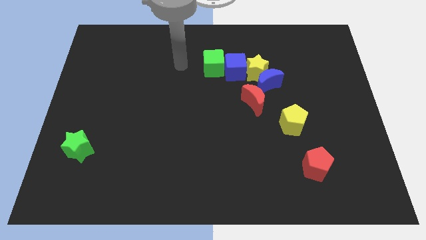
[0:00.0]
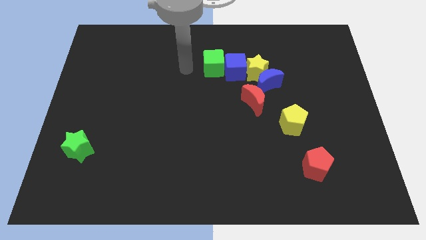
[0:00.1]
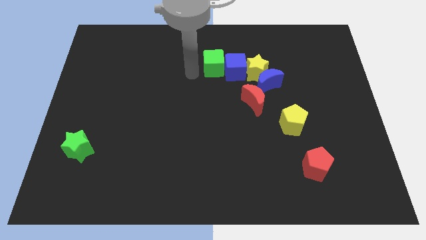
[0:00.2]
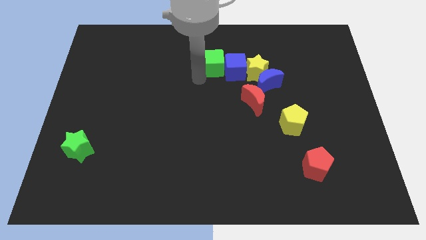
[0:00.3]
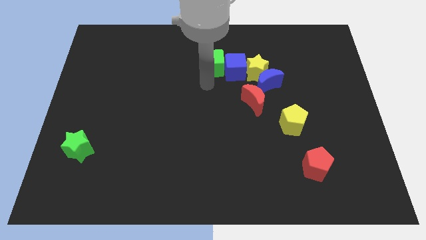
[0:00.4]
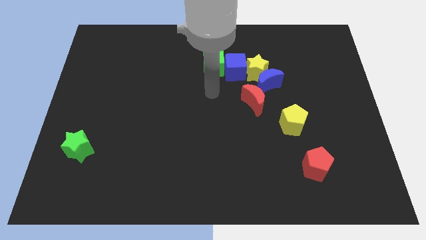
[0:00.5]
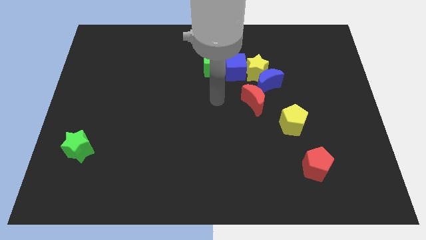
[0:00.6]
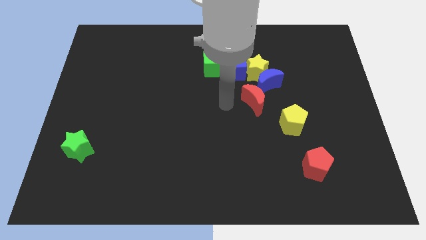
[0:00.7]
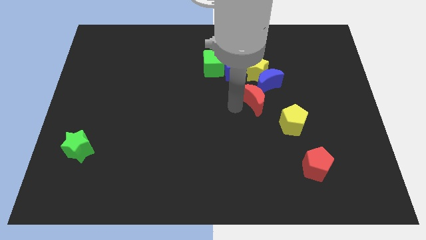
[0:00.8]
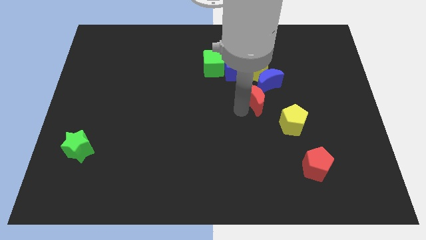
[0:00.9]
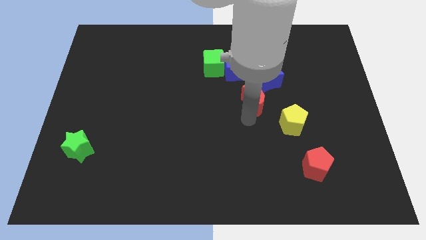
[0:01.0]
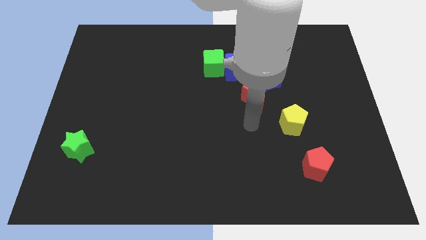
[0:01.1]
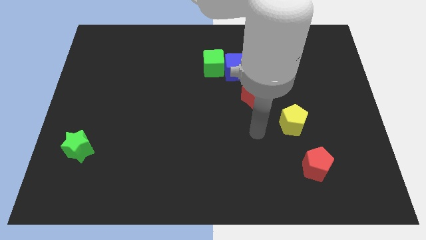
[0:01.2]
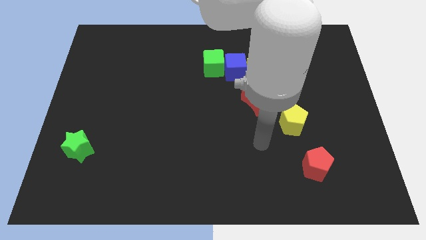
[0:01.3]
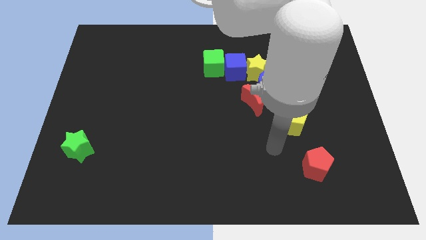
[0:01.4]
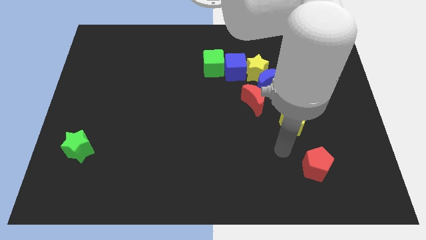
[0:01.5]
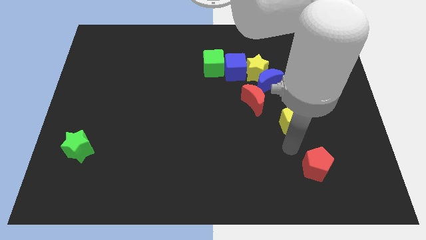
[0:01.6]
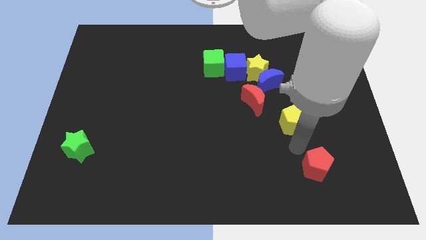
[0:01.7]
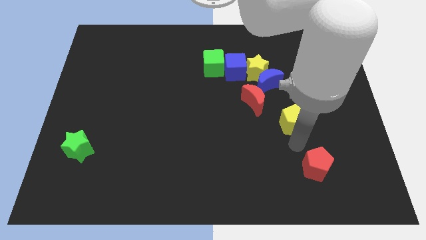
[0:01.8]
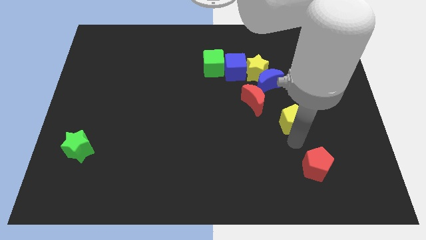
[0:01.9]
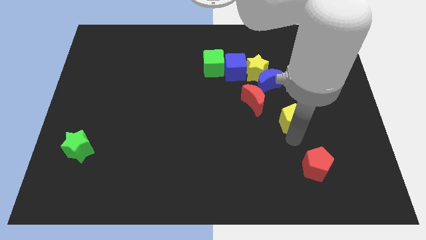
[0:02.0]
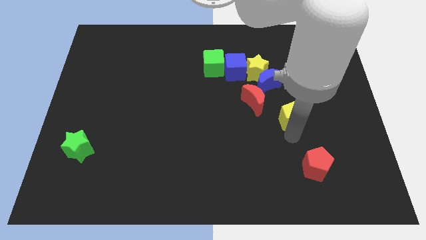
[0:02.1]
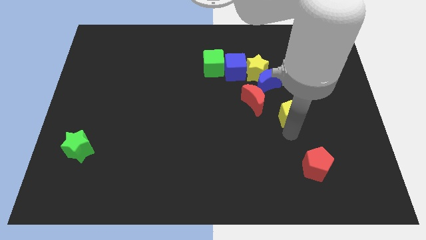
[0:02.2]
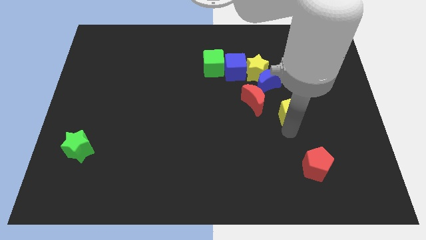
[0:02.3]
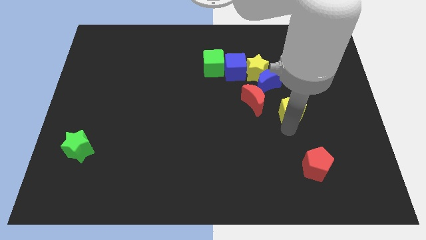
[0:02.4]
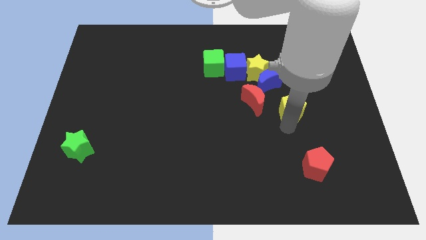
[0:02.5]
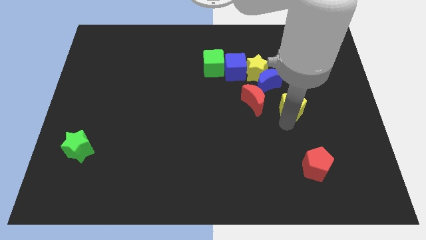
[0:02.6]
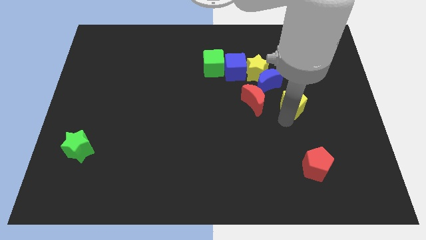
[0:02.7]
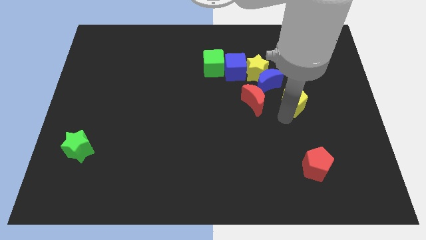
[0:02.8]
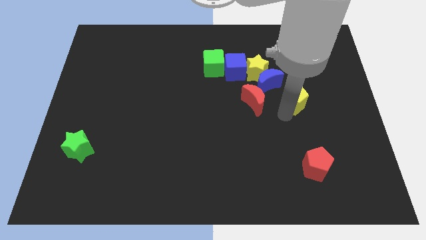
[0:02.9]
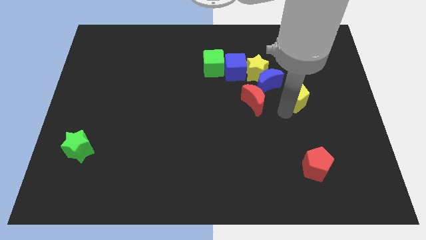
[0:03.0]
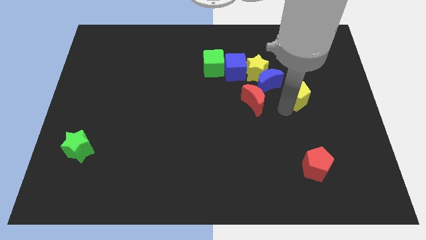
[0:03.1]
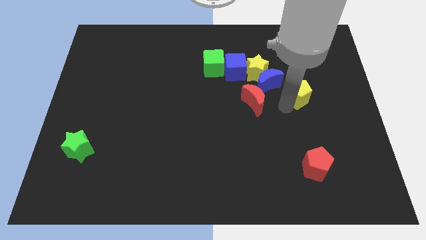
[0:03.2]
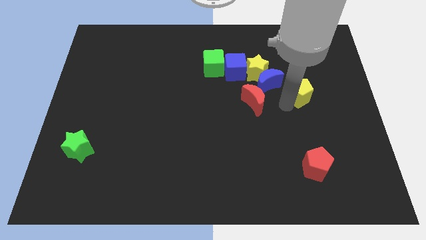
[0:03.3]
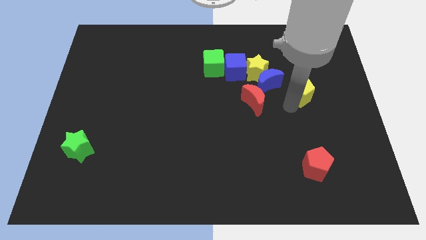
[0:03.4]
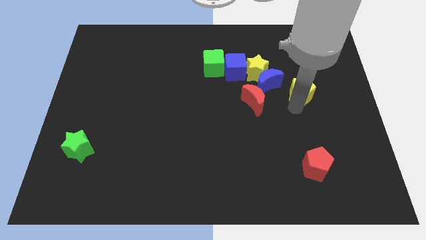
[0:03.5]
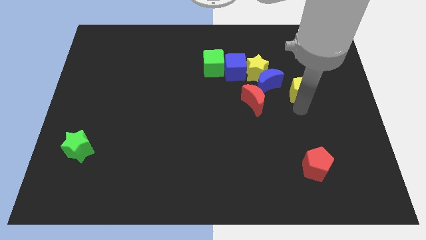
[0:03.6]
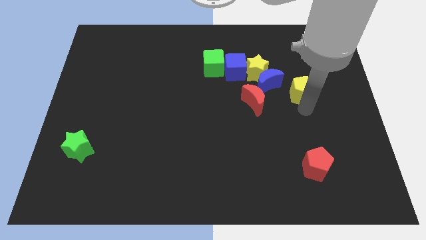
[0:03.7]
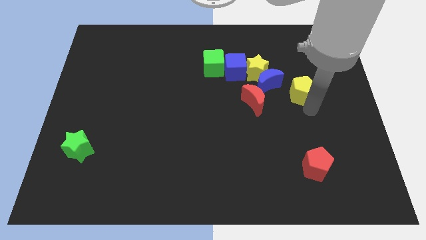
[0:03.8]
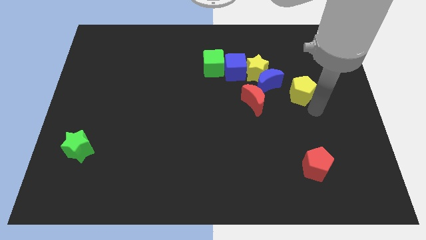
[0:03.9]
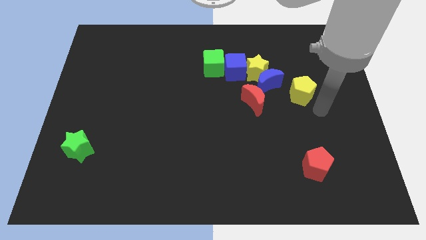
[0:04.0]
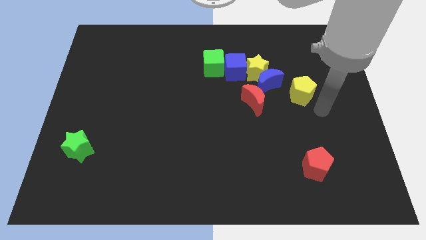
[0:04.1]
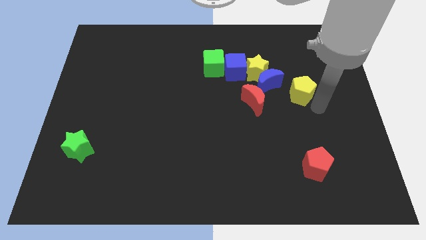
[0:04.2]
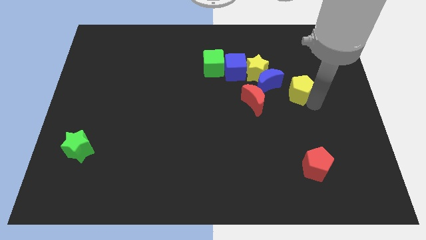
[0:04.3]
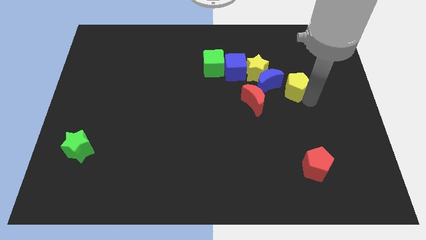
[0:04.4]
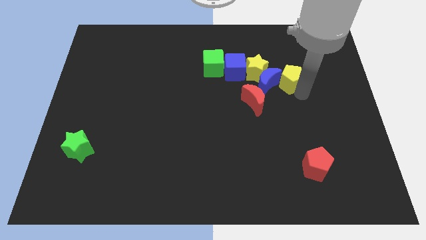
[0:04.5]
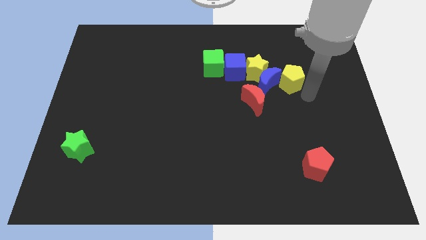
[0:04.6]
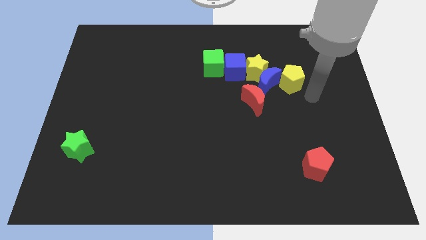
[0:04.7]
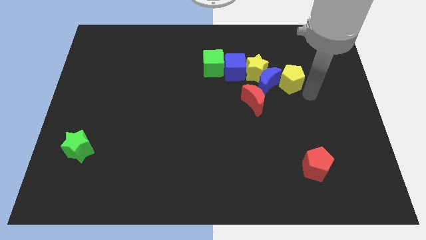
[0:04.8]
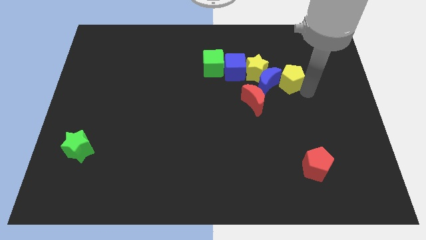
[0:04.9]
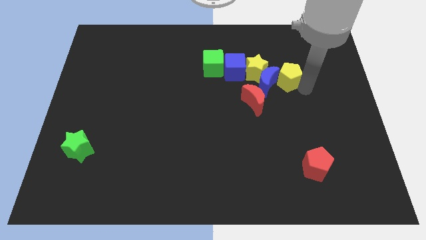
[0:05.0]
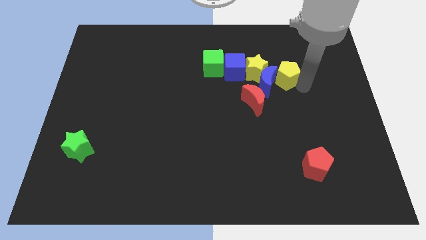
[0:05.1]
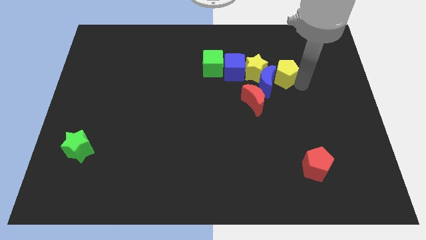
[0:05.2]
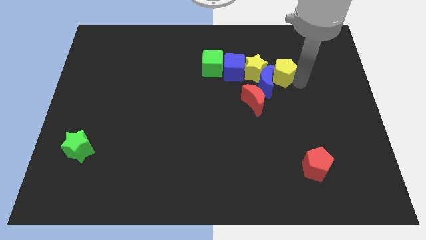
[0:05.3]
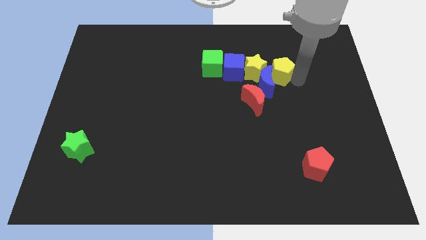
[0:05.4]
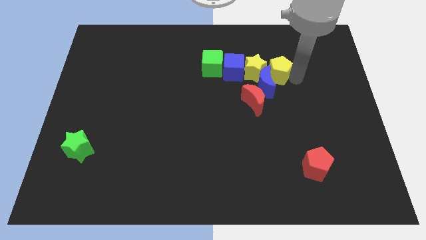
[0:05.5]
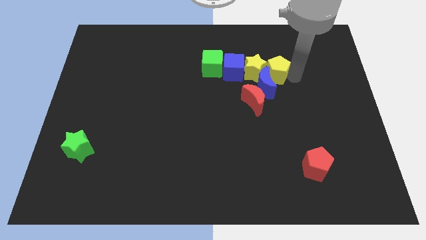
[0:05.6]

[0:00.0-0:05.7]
move the yellow pentagon to the yellow star

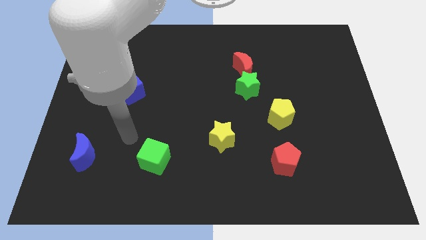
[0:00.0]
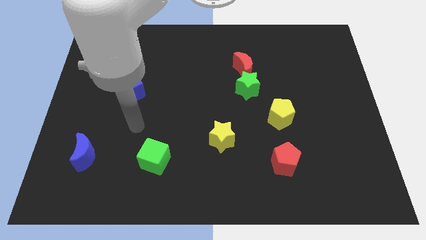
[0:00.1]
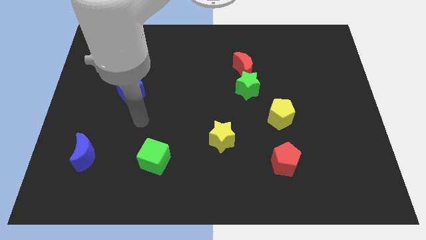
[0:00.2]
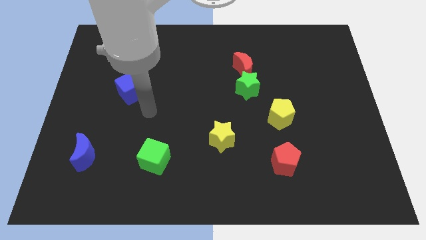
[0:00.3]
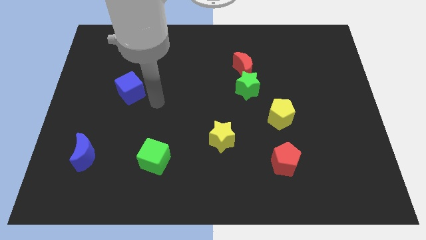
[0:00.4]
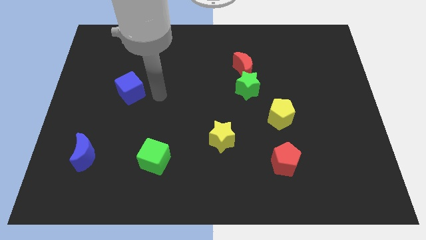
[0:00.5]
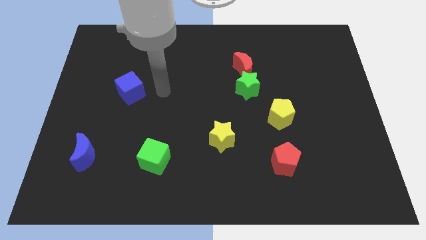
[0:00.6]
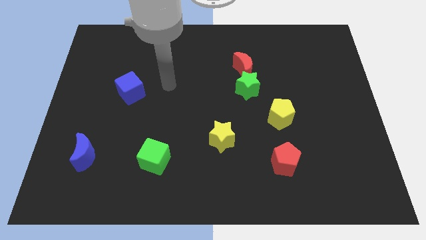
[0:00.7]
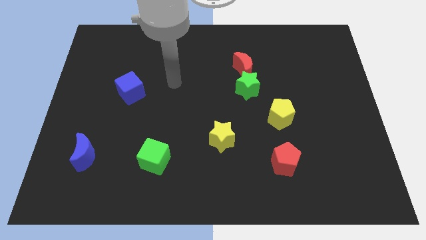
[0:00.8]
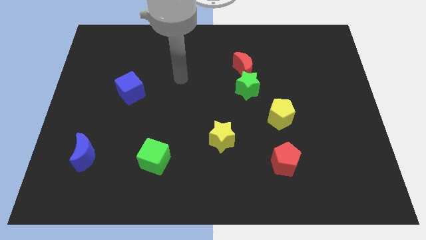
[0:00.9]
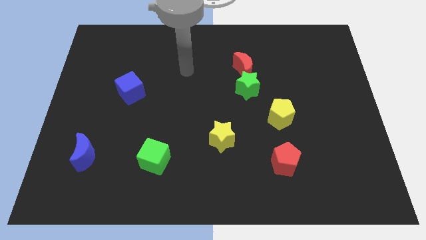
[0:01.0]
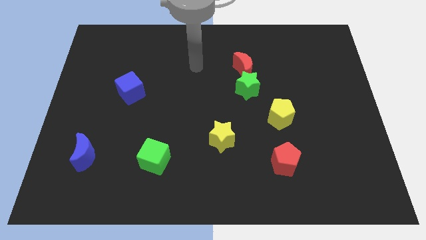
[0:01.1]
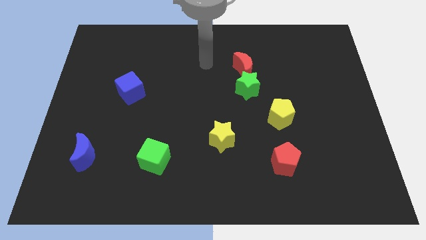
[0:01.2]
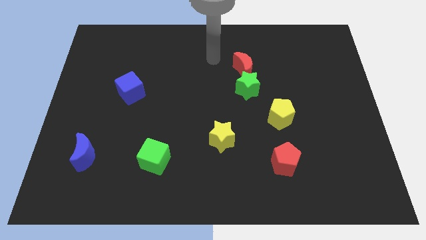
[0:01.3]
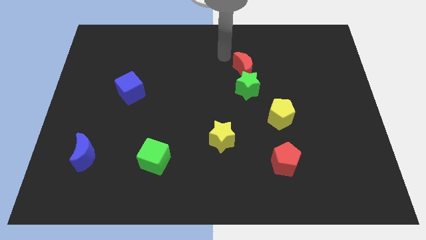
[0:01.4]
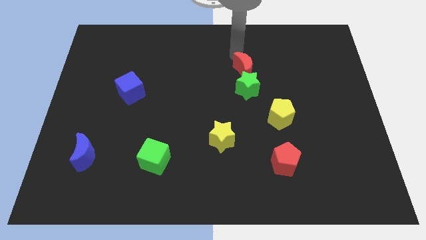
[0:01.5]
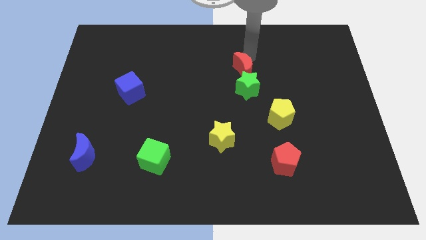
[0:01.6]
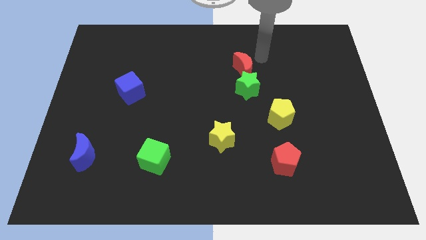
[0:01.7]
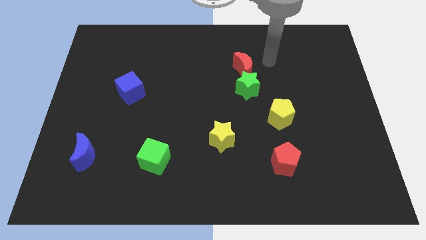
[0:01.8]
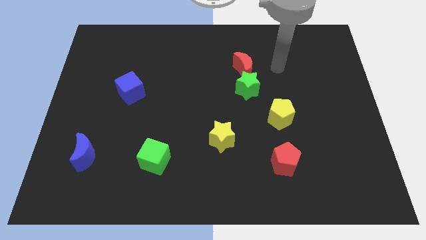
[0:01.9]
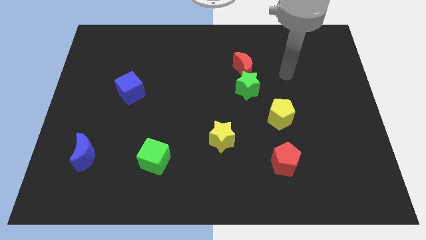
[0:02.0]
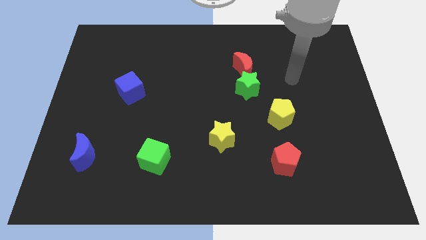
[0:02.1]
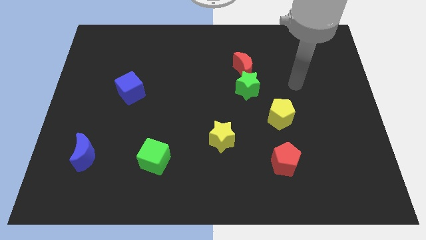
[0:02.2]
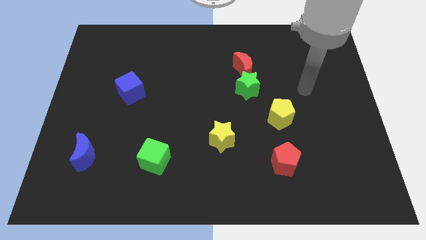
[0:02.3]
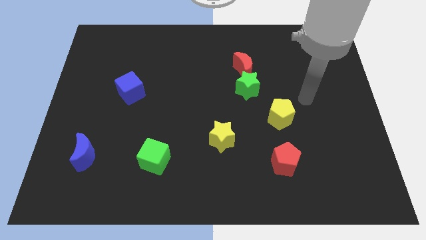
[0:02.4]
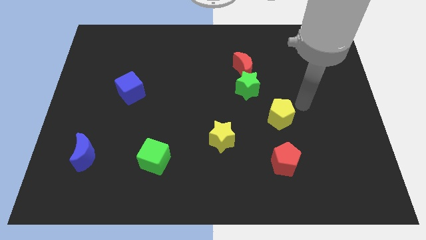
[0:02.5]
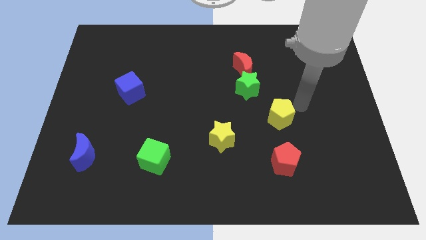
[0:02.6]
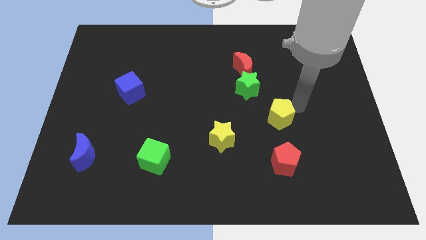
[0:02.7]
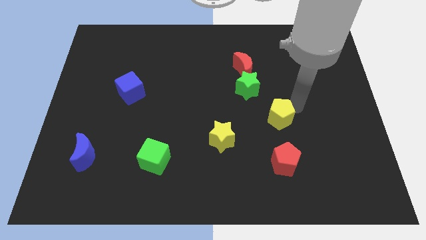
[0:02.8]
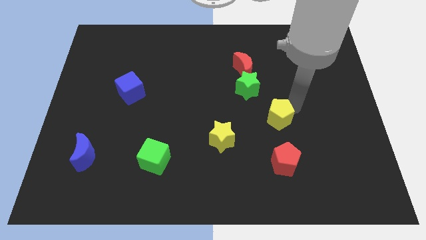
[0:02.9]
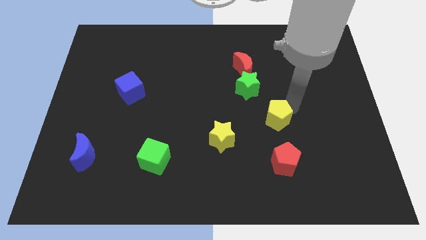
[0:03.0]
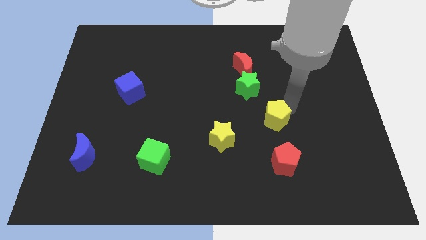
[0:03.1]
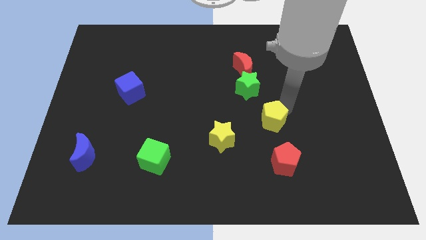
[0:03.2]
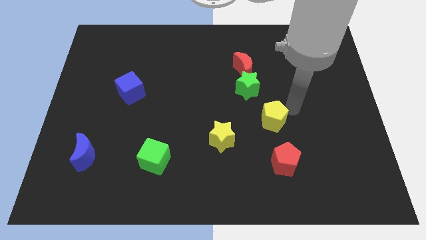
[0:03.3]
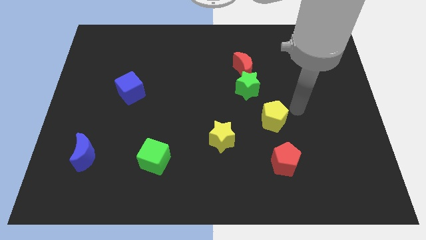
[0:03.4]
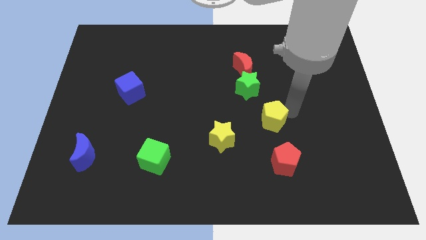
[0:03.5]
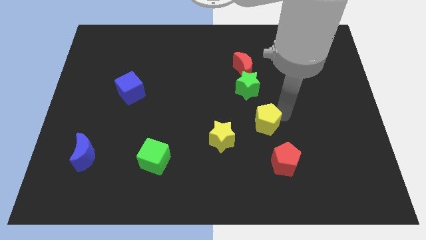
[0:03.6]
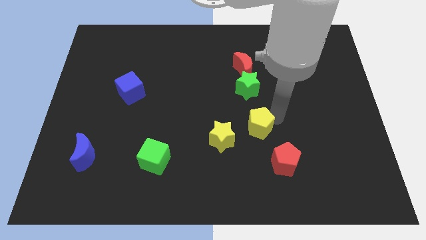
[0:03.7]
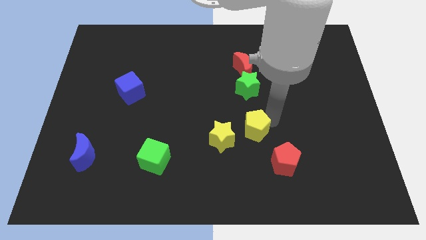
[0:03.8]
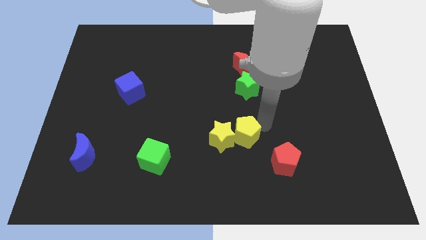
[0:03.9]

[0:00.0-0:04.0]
slide the yellow pentagon next to the yellow star
